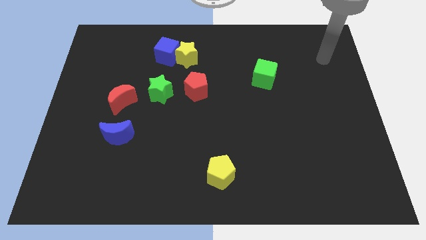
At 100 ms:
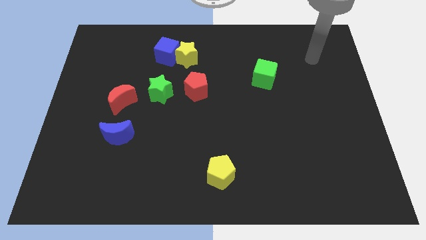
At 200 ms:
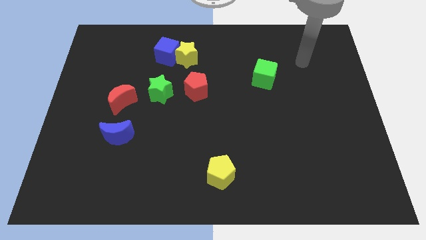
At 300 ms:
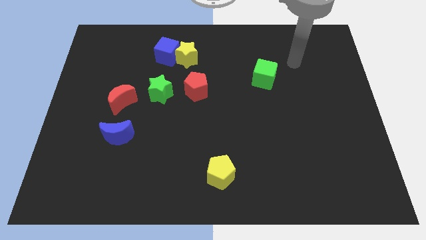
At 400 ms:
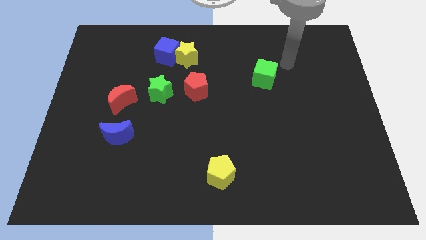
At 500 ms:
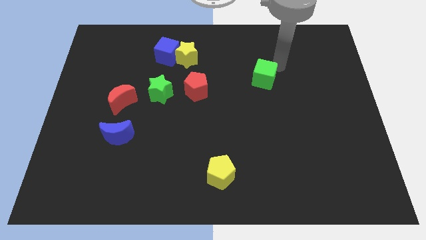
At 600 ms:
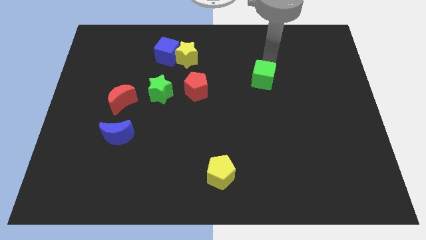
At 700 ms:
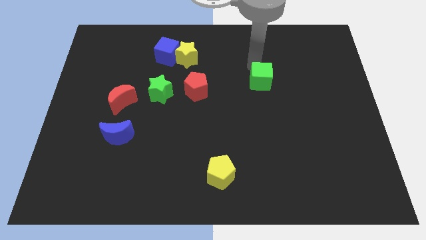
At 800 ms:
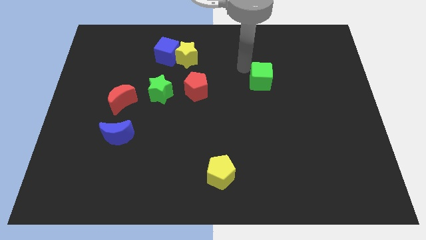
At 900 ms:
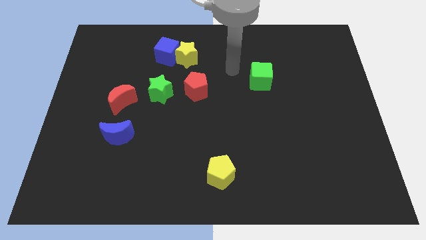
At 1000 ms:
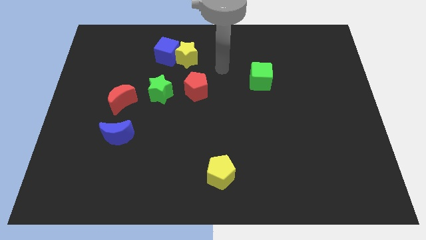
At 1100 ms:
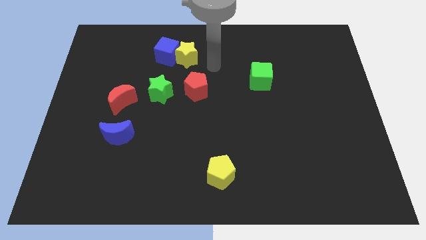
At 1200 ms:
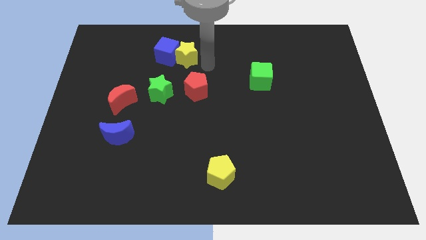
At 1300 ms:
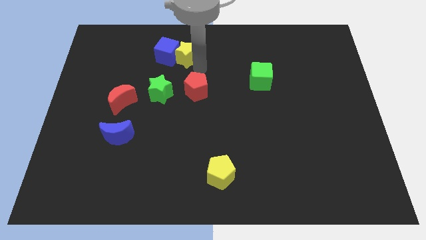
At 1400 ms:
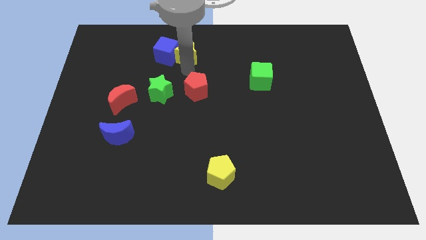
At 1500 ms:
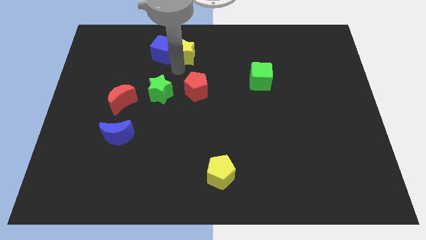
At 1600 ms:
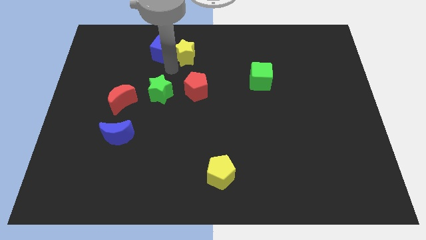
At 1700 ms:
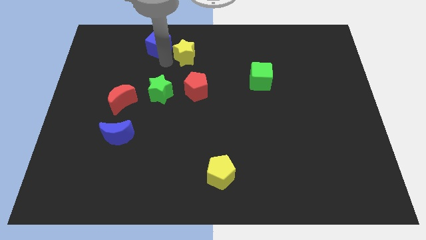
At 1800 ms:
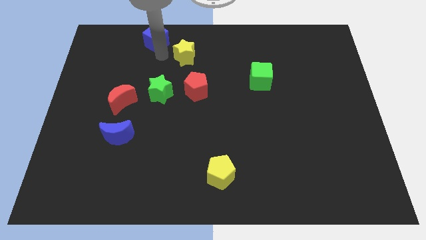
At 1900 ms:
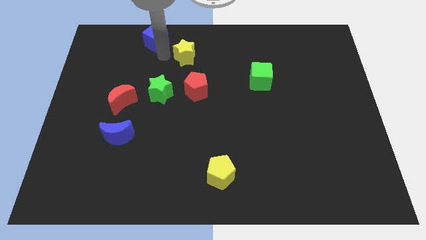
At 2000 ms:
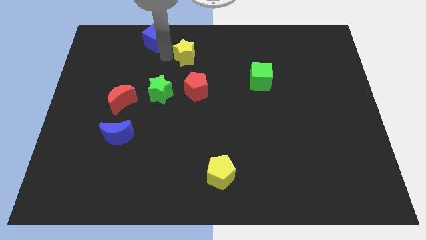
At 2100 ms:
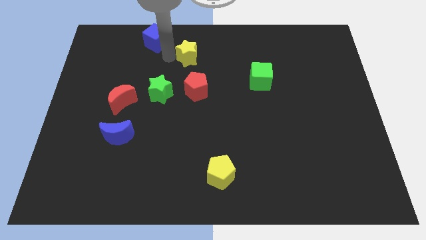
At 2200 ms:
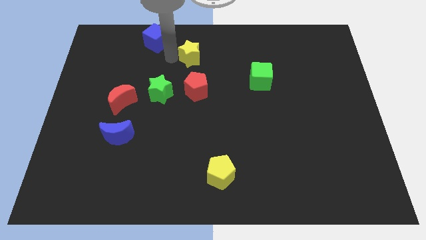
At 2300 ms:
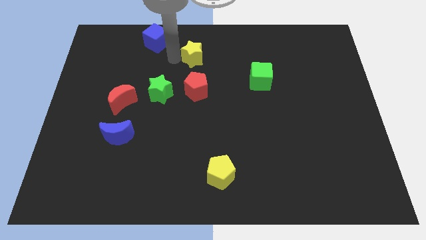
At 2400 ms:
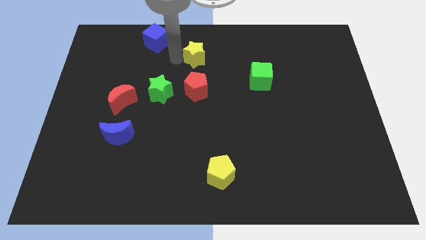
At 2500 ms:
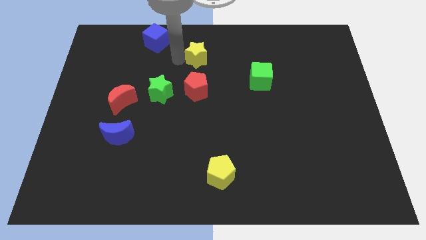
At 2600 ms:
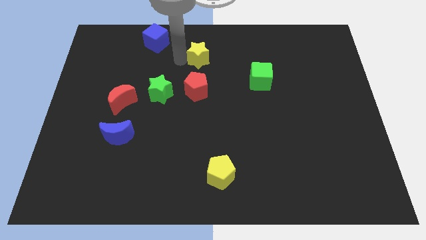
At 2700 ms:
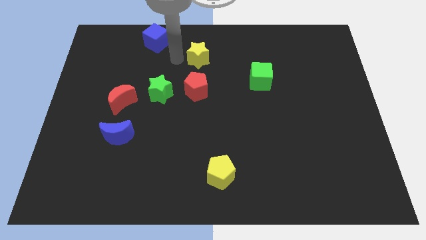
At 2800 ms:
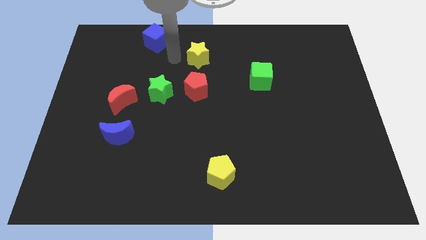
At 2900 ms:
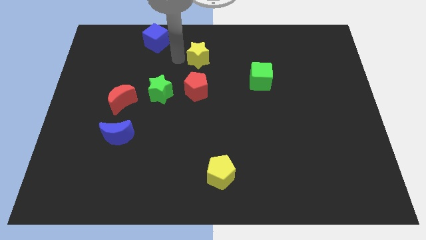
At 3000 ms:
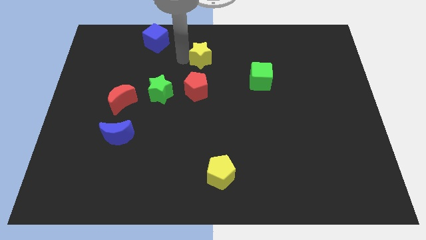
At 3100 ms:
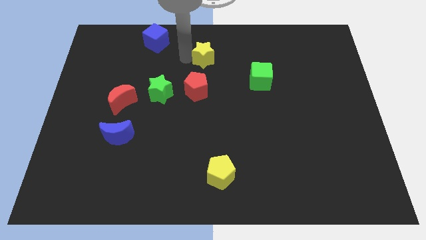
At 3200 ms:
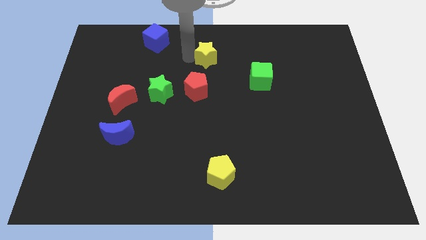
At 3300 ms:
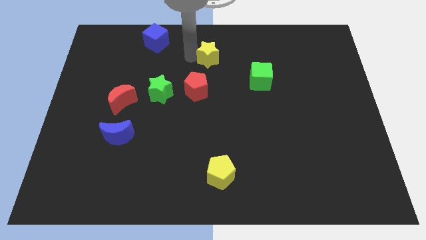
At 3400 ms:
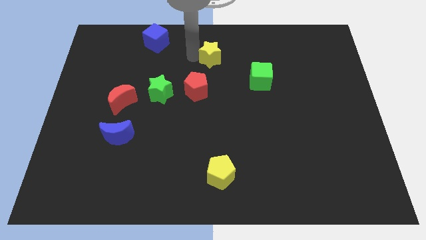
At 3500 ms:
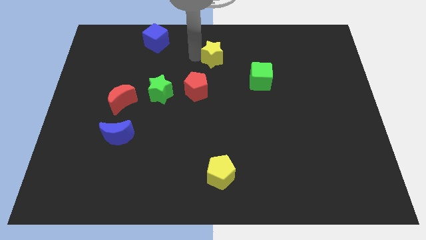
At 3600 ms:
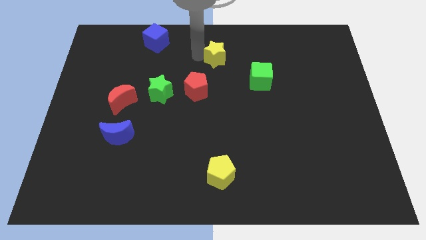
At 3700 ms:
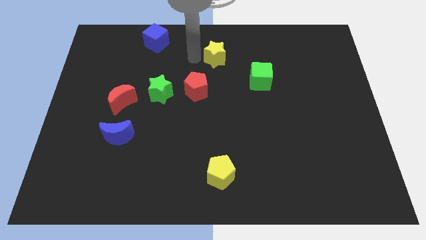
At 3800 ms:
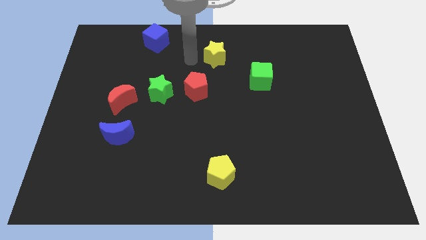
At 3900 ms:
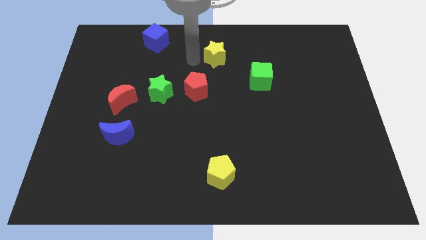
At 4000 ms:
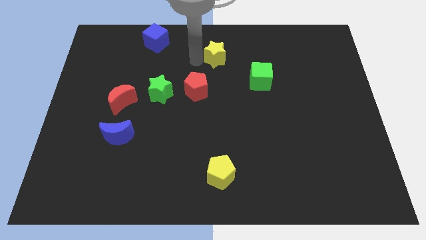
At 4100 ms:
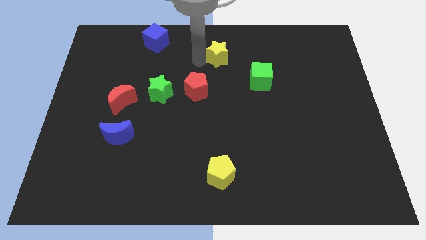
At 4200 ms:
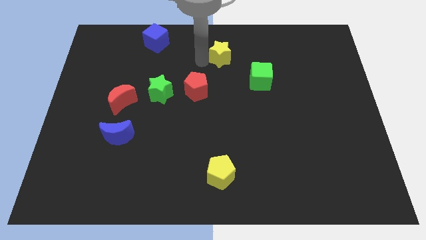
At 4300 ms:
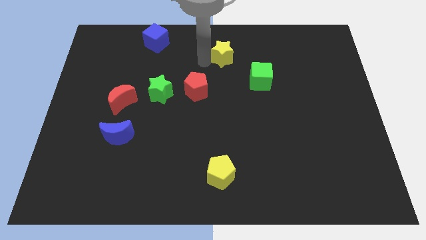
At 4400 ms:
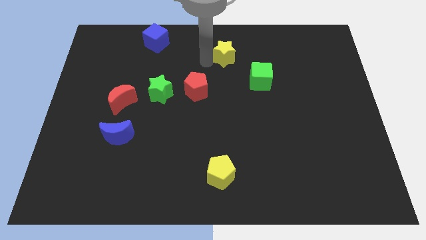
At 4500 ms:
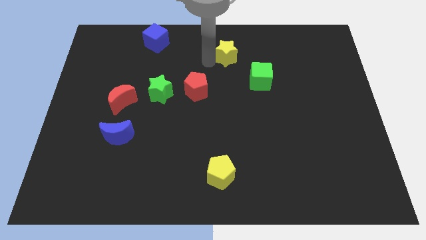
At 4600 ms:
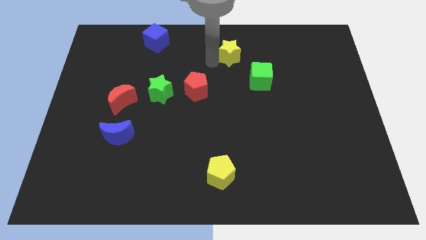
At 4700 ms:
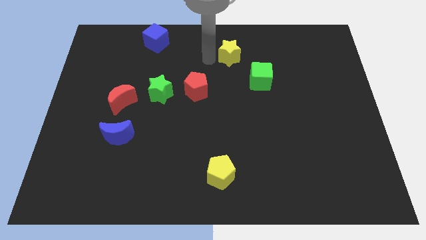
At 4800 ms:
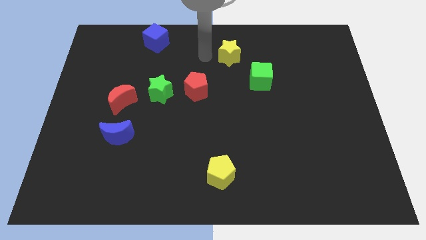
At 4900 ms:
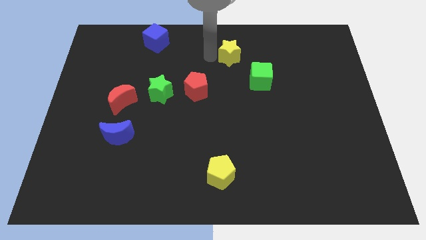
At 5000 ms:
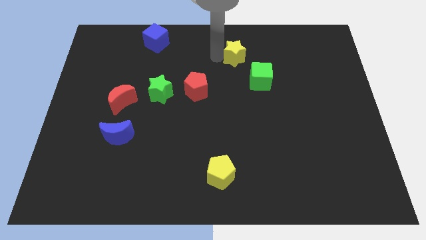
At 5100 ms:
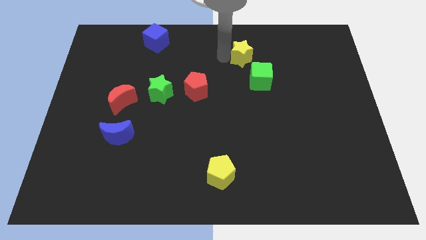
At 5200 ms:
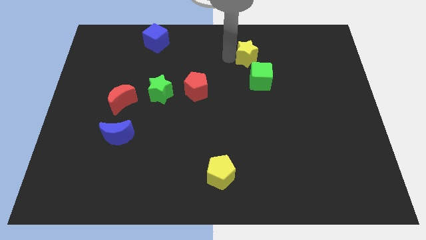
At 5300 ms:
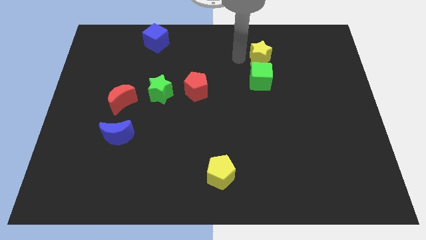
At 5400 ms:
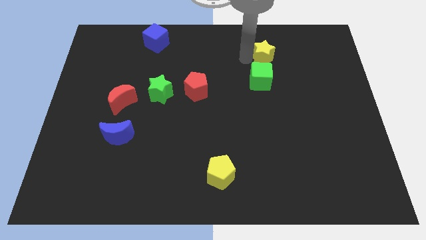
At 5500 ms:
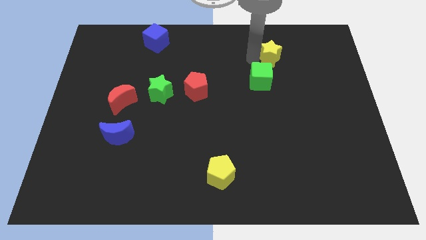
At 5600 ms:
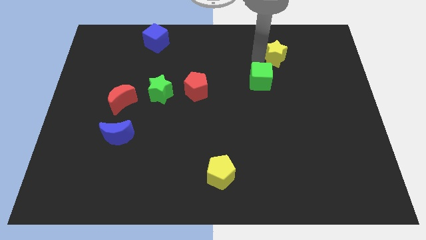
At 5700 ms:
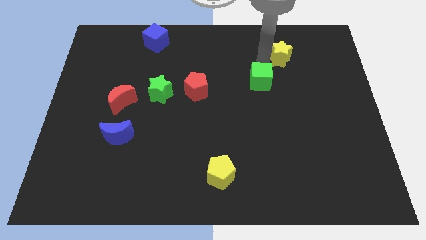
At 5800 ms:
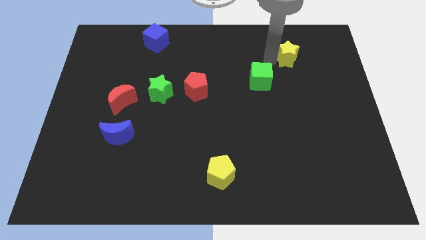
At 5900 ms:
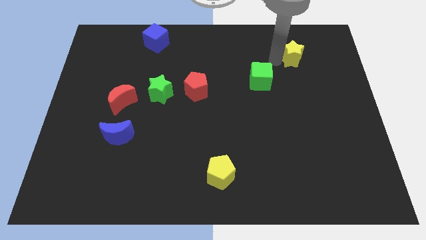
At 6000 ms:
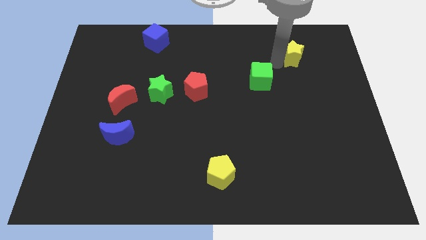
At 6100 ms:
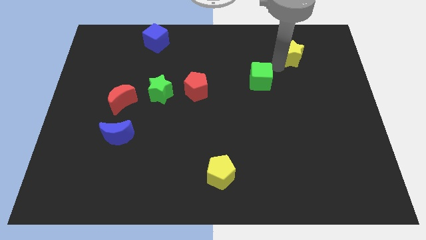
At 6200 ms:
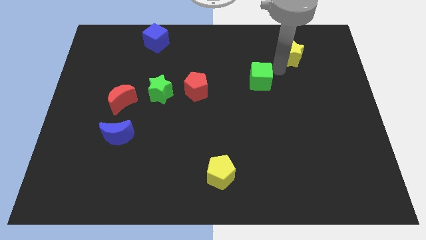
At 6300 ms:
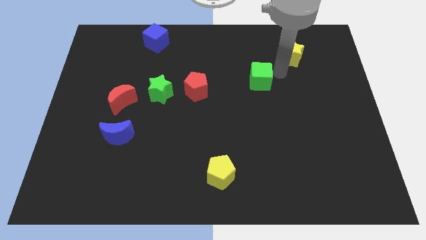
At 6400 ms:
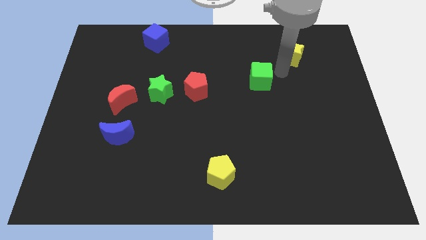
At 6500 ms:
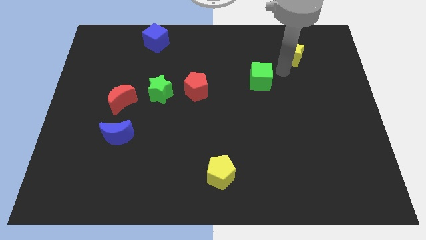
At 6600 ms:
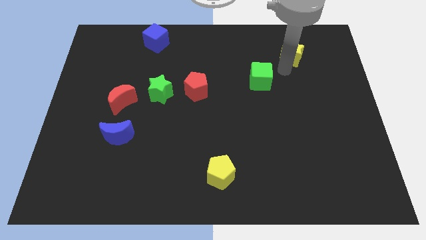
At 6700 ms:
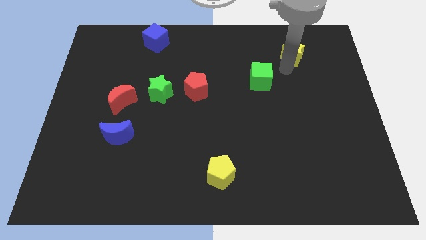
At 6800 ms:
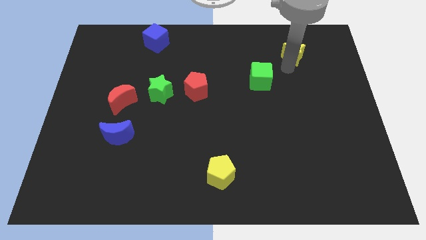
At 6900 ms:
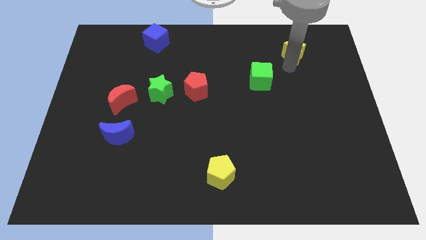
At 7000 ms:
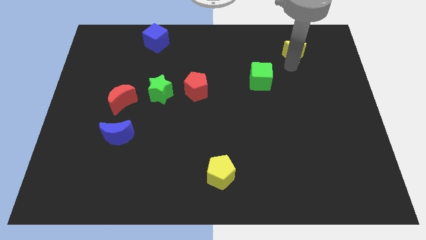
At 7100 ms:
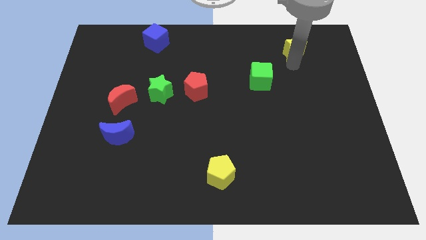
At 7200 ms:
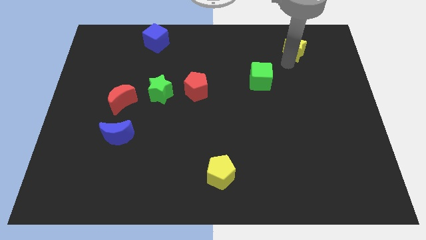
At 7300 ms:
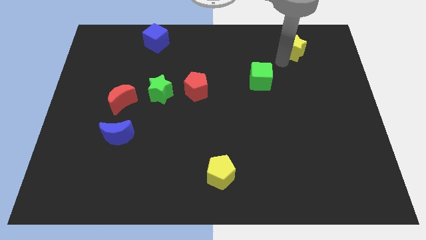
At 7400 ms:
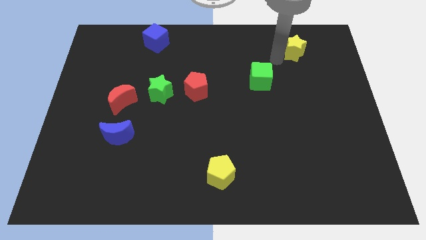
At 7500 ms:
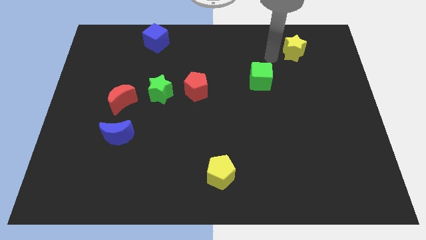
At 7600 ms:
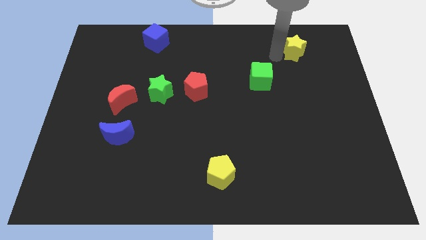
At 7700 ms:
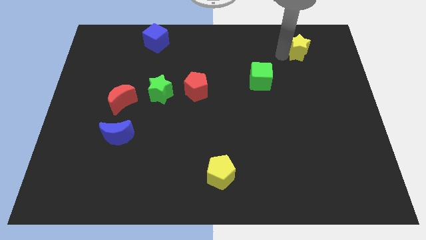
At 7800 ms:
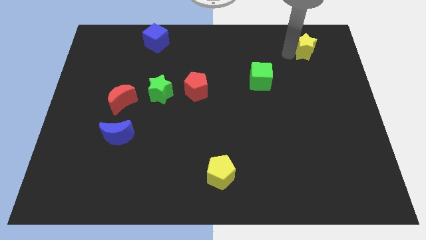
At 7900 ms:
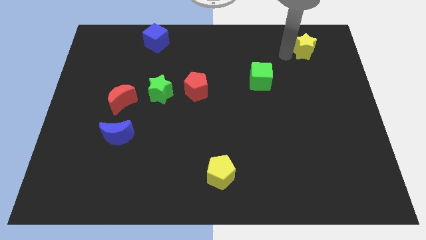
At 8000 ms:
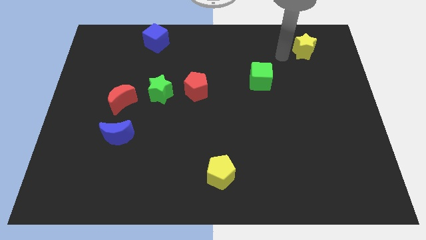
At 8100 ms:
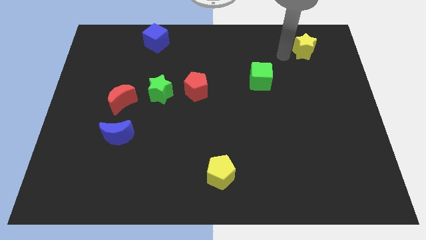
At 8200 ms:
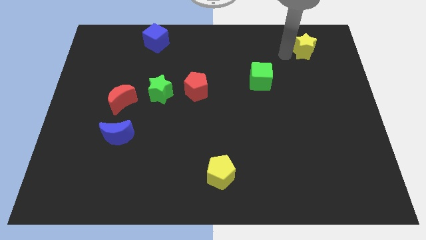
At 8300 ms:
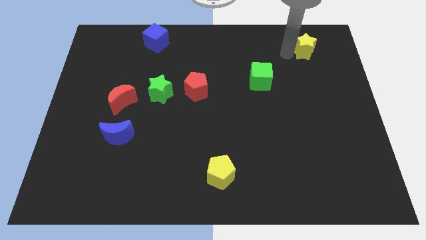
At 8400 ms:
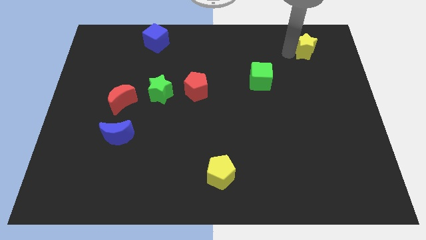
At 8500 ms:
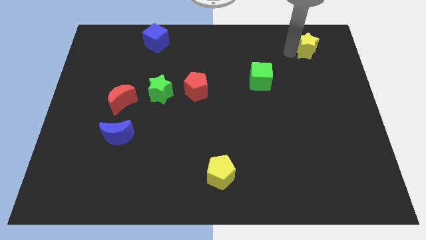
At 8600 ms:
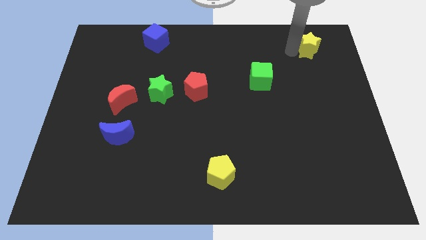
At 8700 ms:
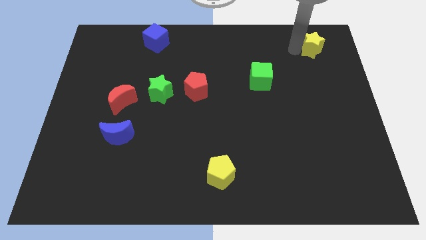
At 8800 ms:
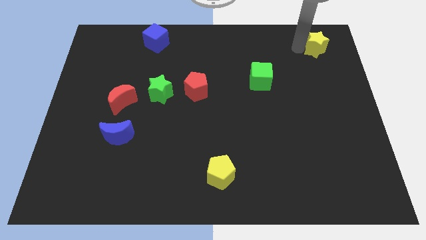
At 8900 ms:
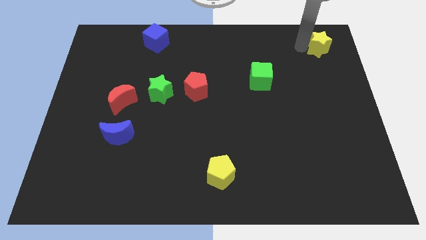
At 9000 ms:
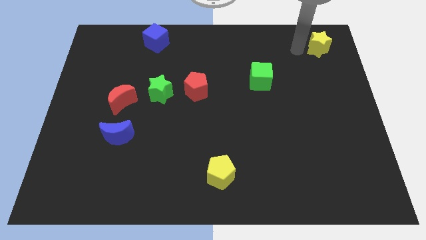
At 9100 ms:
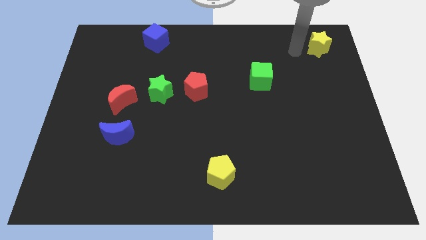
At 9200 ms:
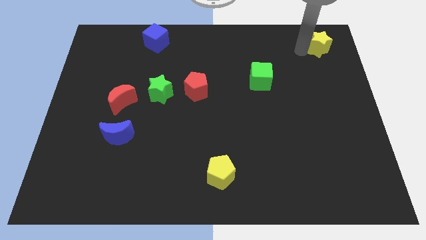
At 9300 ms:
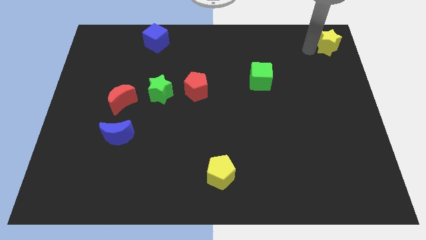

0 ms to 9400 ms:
move the yellow star to the top right corner
